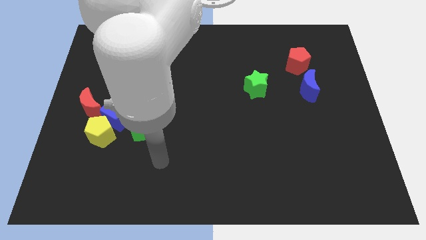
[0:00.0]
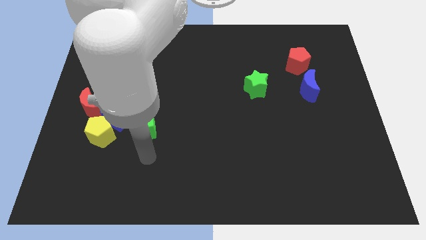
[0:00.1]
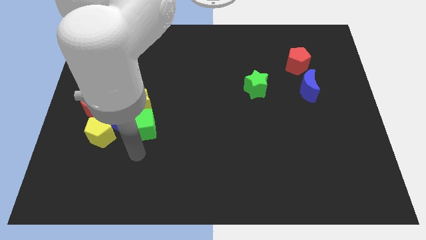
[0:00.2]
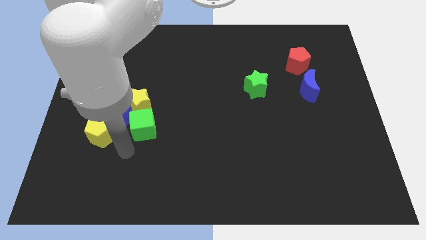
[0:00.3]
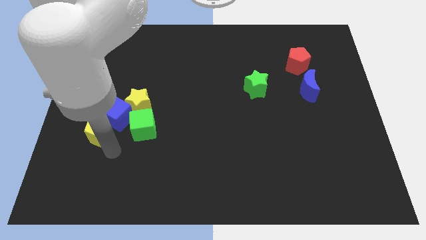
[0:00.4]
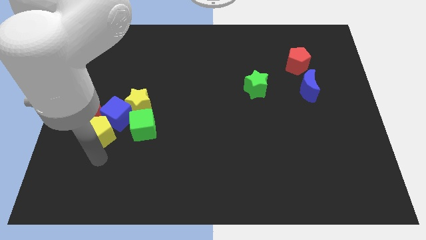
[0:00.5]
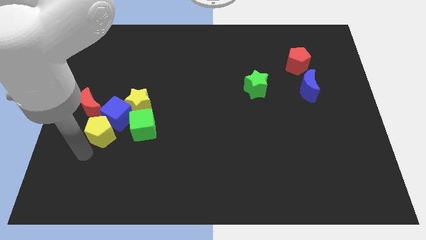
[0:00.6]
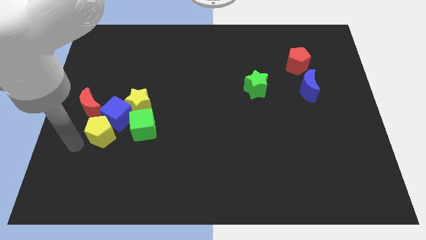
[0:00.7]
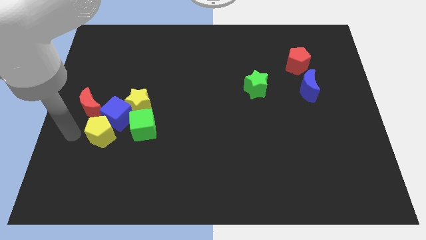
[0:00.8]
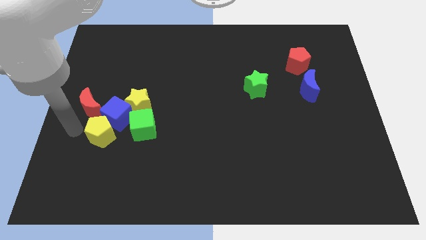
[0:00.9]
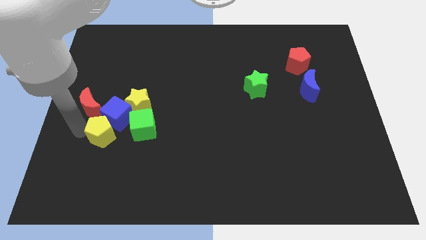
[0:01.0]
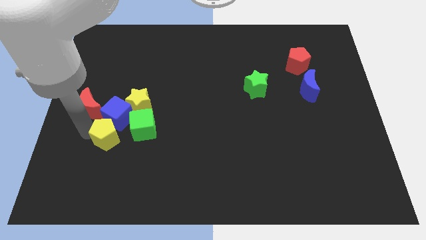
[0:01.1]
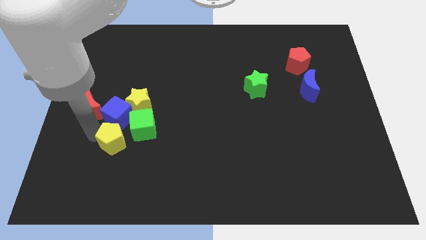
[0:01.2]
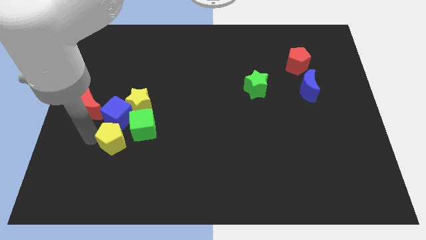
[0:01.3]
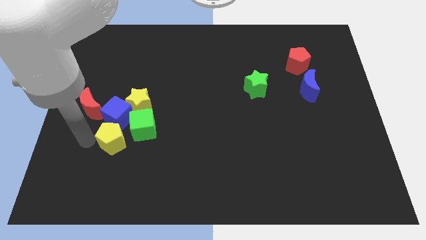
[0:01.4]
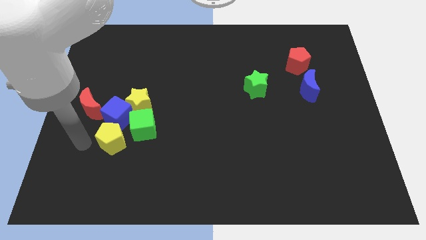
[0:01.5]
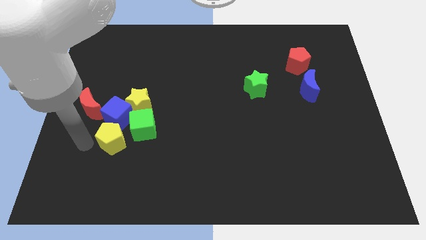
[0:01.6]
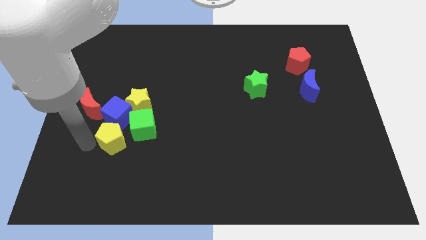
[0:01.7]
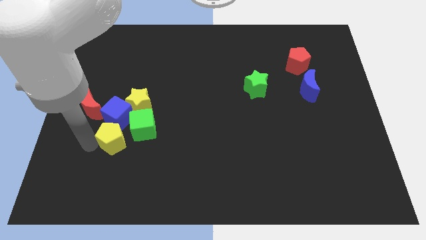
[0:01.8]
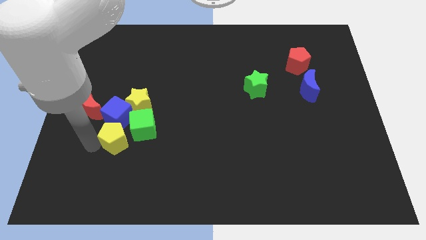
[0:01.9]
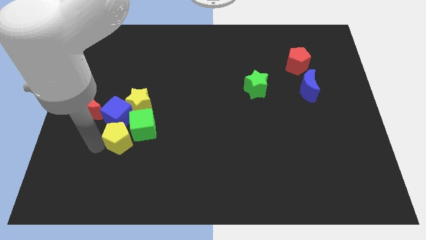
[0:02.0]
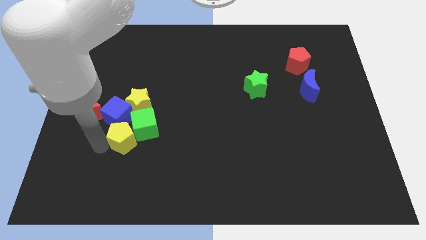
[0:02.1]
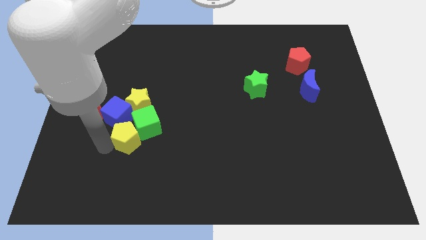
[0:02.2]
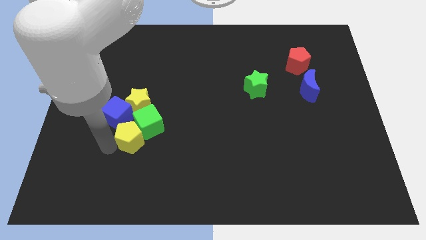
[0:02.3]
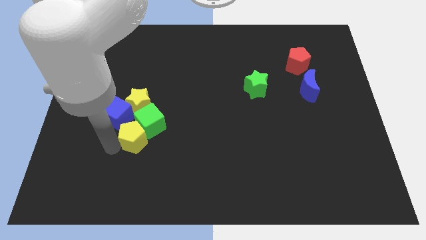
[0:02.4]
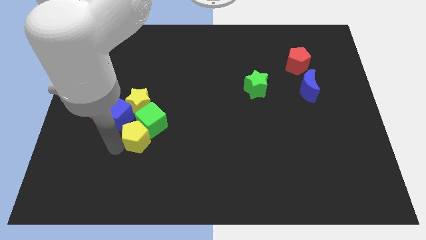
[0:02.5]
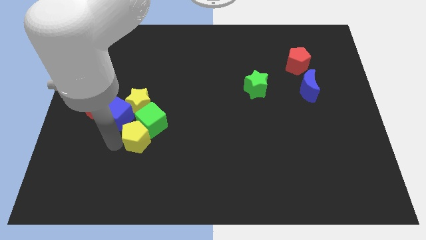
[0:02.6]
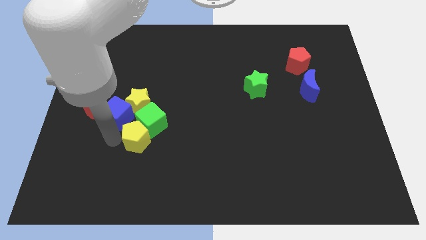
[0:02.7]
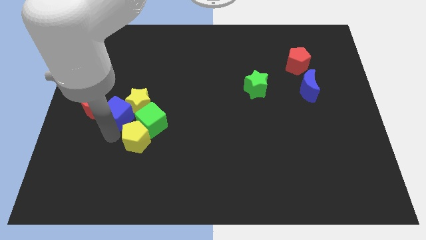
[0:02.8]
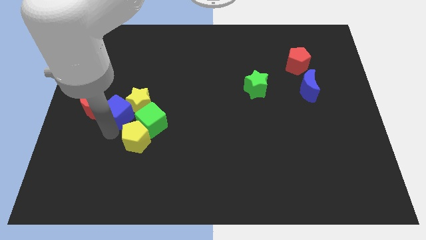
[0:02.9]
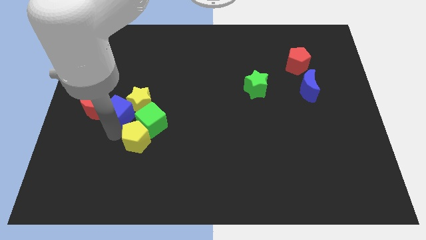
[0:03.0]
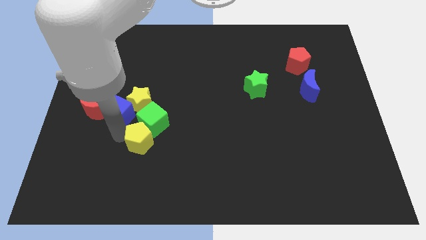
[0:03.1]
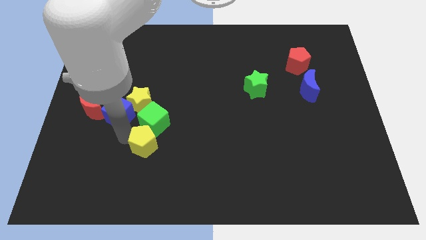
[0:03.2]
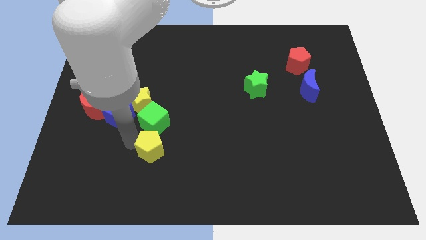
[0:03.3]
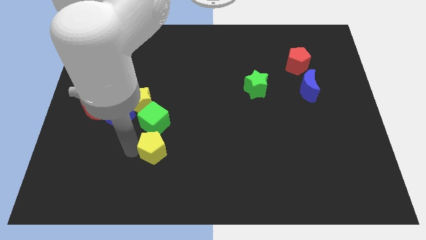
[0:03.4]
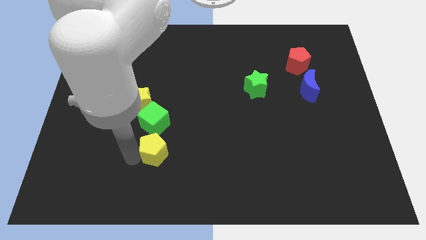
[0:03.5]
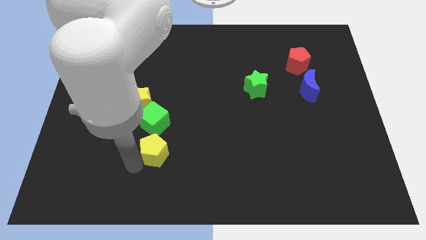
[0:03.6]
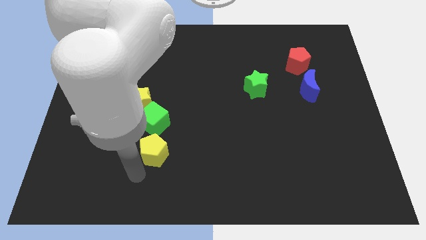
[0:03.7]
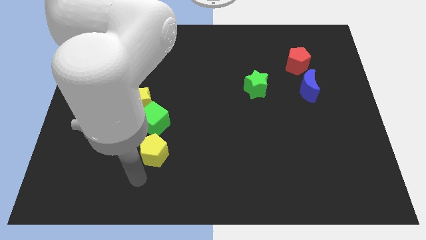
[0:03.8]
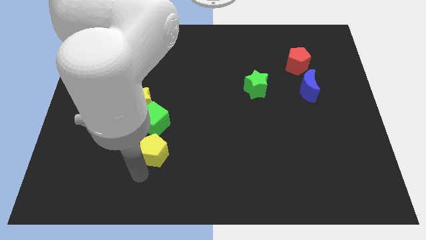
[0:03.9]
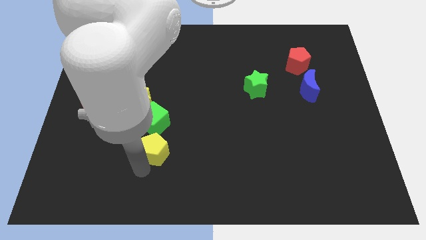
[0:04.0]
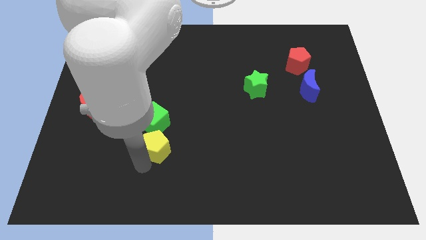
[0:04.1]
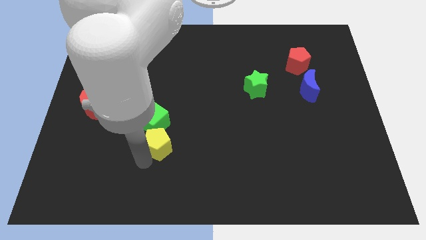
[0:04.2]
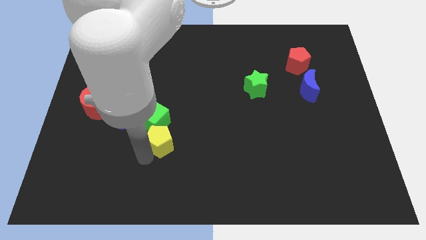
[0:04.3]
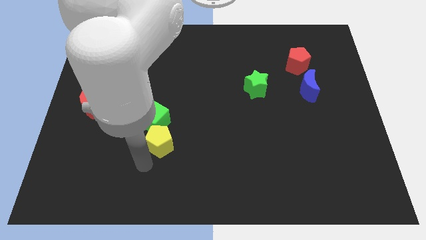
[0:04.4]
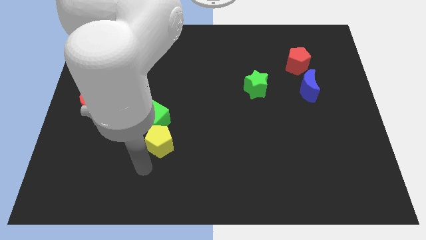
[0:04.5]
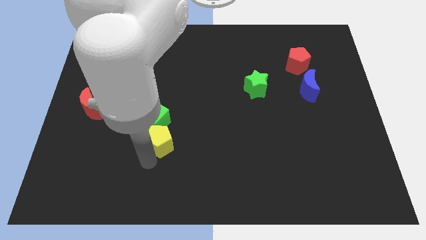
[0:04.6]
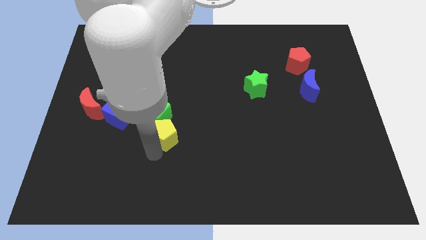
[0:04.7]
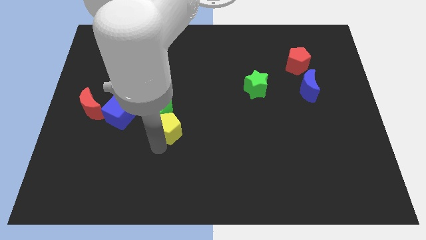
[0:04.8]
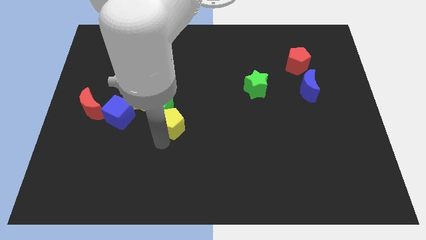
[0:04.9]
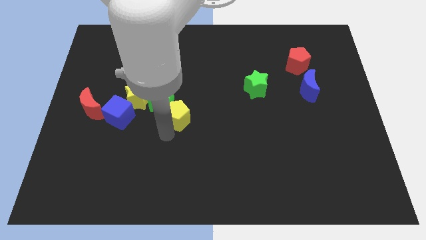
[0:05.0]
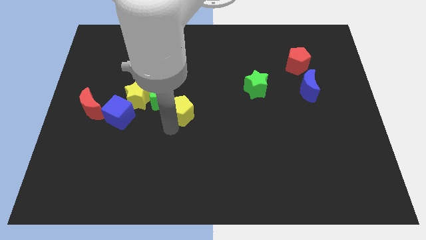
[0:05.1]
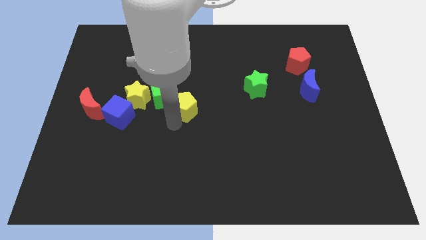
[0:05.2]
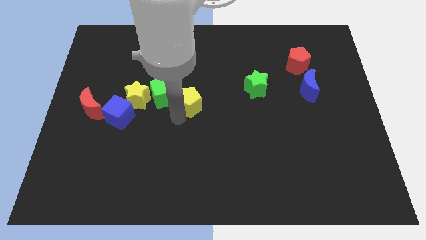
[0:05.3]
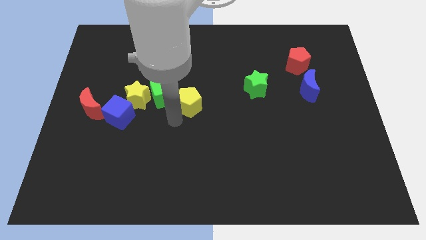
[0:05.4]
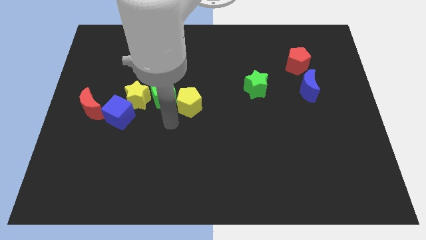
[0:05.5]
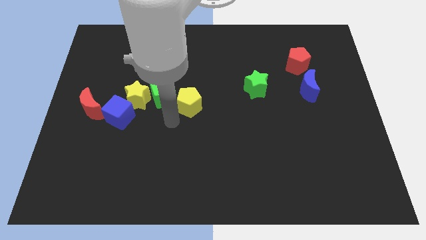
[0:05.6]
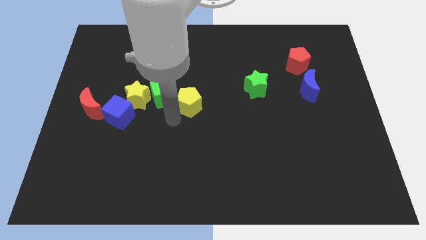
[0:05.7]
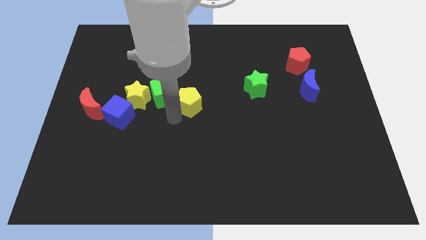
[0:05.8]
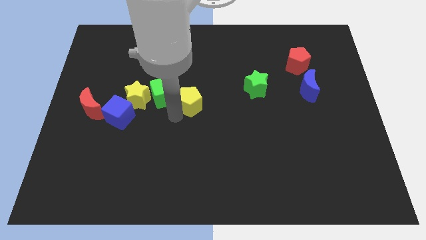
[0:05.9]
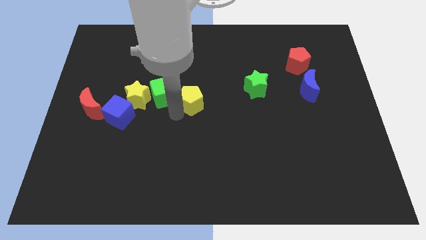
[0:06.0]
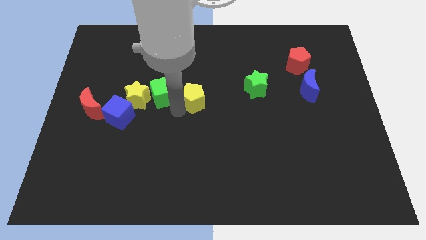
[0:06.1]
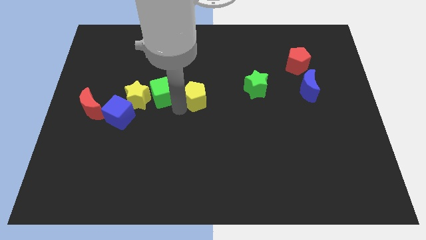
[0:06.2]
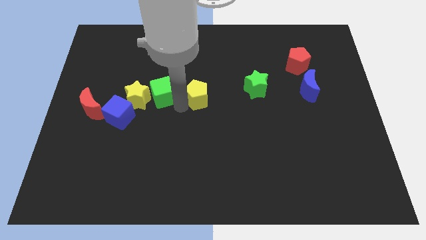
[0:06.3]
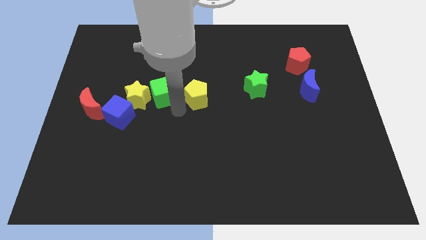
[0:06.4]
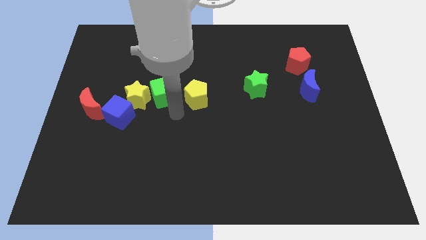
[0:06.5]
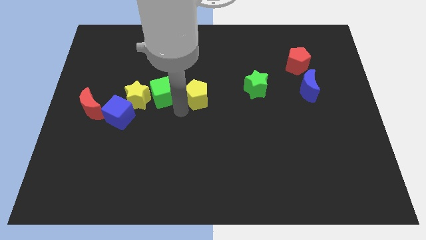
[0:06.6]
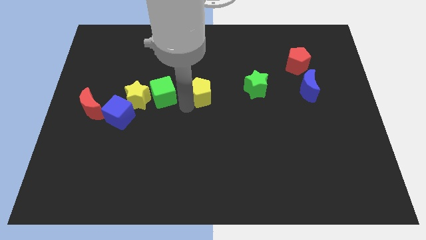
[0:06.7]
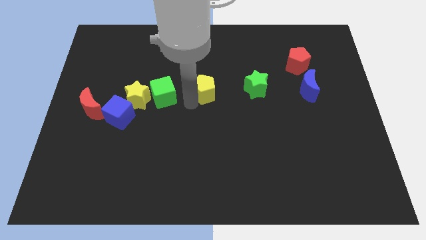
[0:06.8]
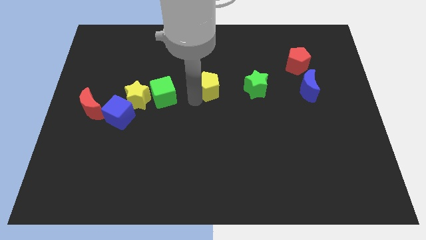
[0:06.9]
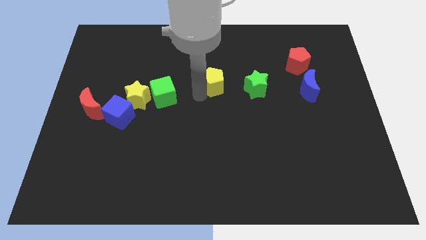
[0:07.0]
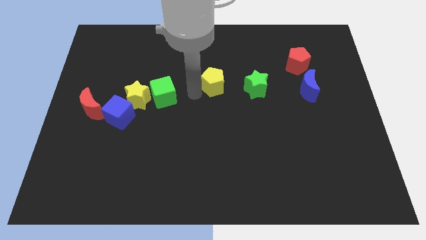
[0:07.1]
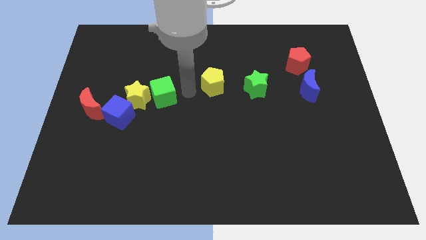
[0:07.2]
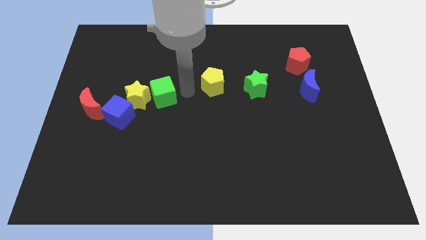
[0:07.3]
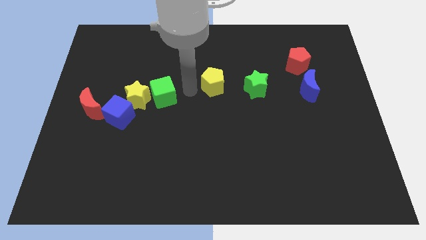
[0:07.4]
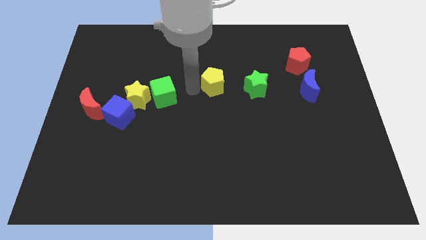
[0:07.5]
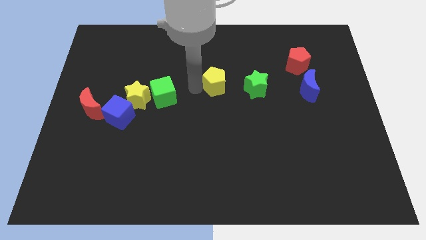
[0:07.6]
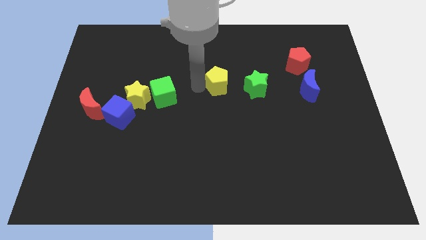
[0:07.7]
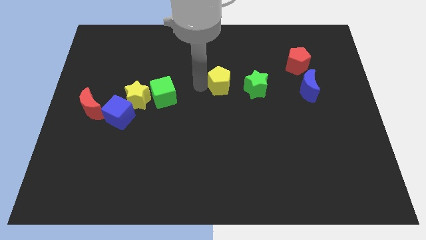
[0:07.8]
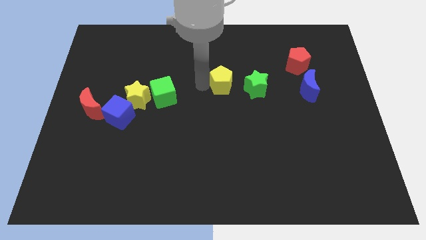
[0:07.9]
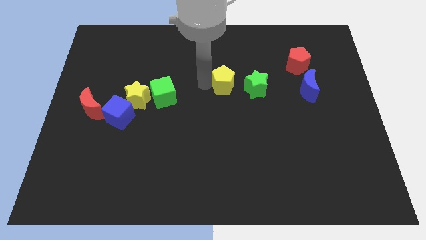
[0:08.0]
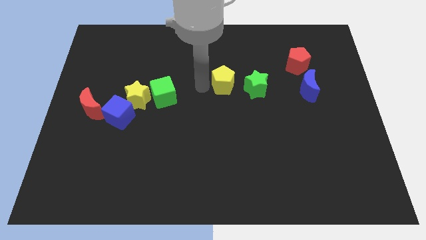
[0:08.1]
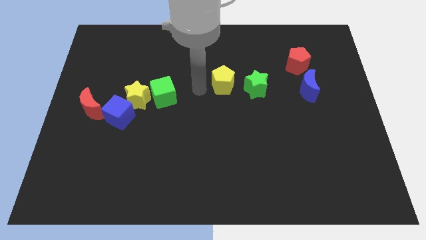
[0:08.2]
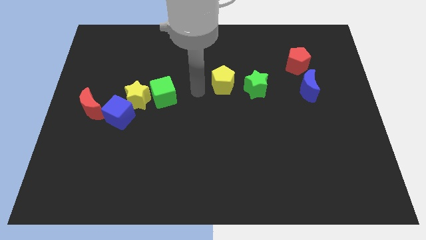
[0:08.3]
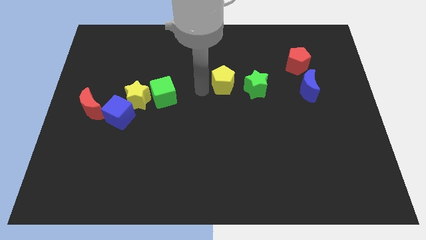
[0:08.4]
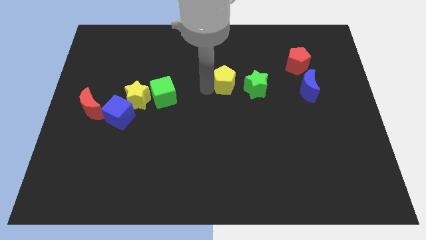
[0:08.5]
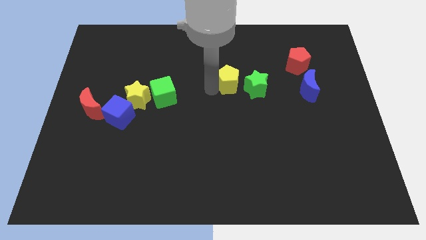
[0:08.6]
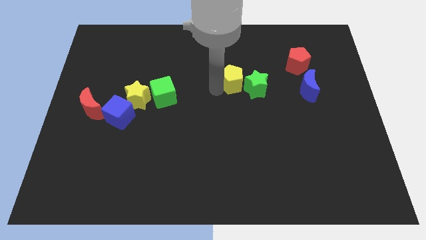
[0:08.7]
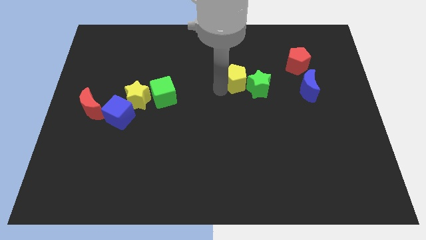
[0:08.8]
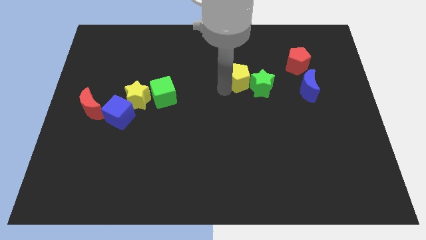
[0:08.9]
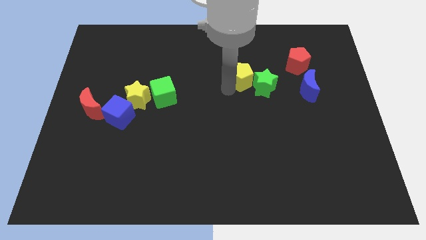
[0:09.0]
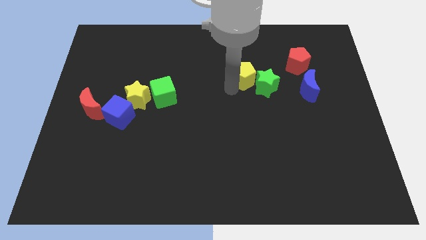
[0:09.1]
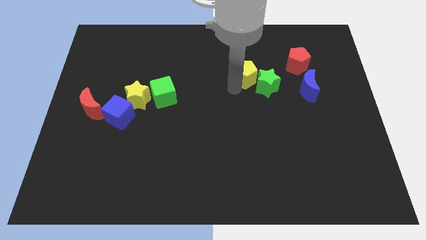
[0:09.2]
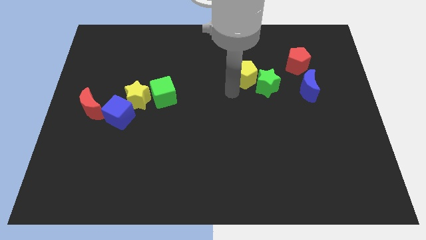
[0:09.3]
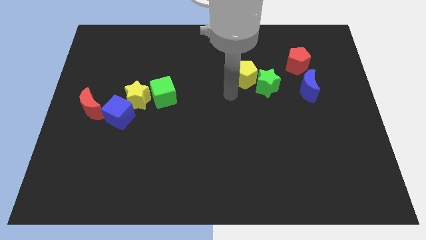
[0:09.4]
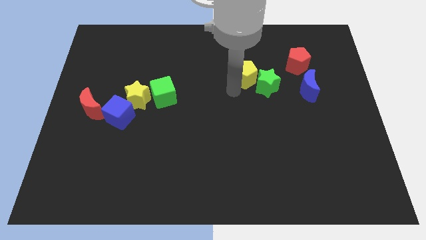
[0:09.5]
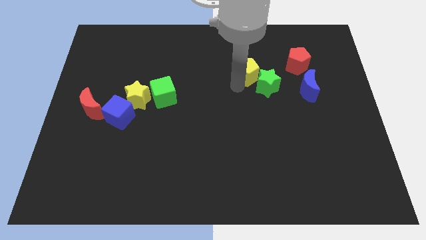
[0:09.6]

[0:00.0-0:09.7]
put the yellow pentagon left of the red pentagon
